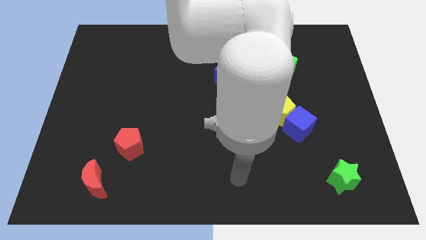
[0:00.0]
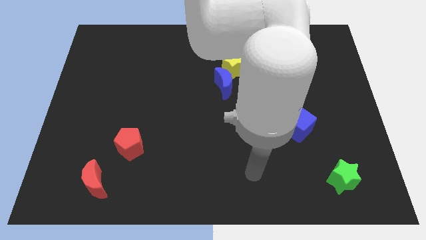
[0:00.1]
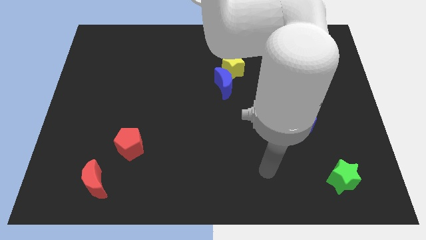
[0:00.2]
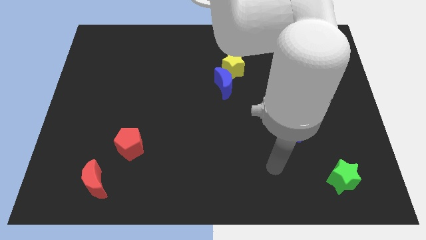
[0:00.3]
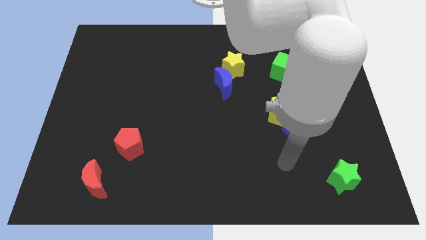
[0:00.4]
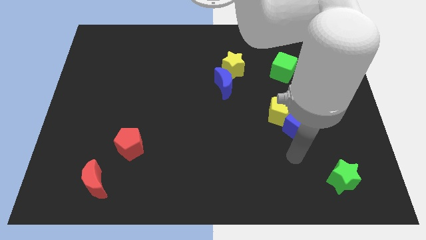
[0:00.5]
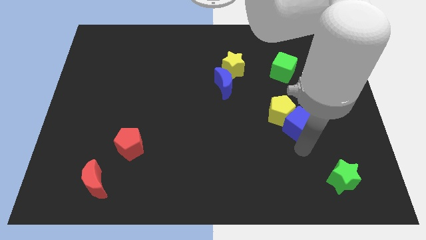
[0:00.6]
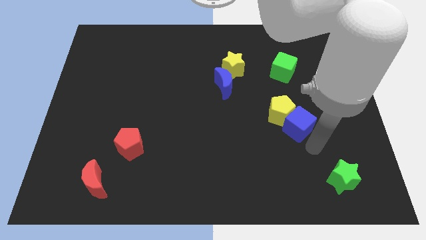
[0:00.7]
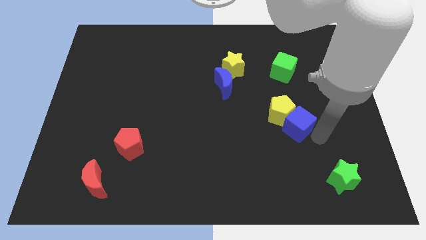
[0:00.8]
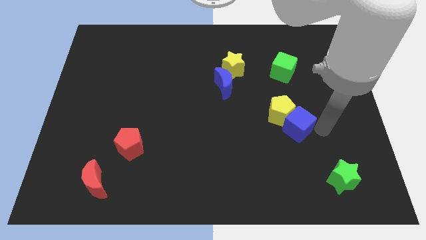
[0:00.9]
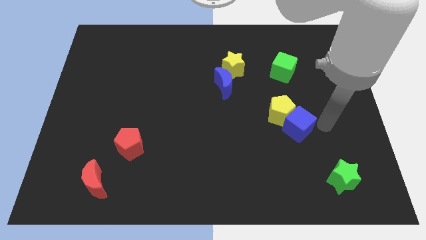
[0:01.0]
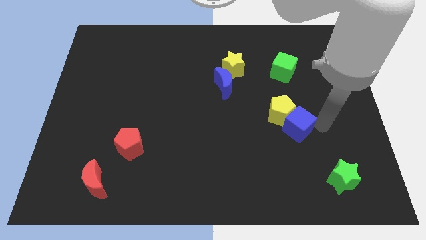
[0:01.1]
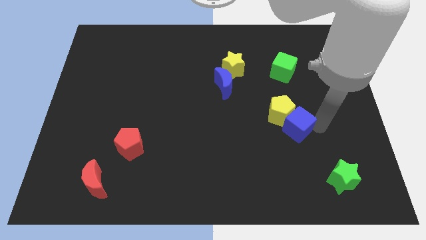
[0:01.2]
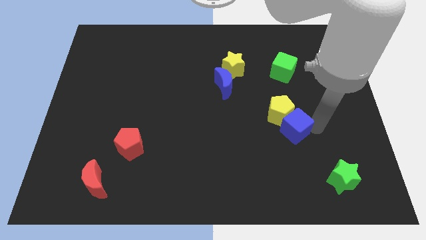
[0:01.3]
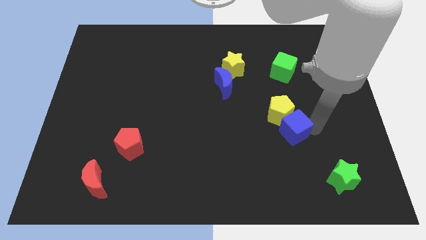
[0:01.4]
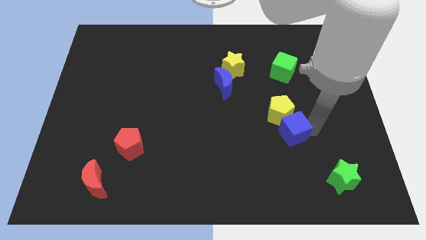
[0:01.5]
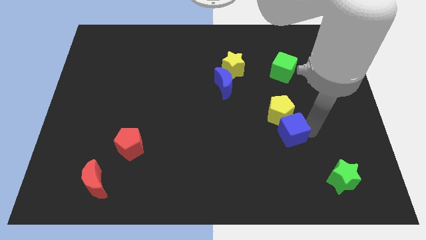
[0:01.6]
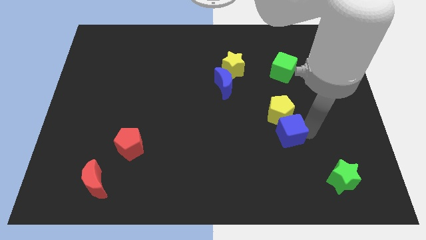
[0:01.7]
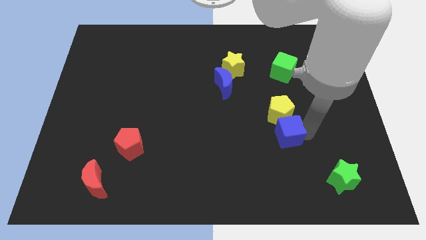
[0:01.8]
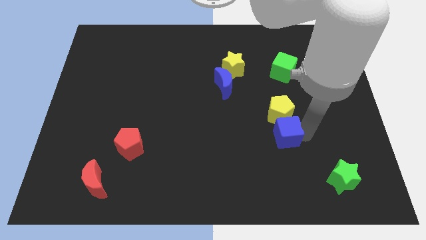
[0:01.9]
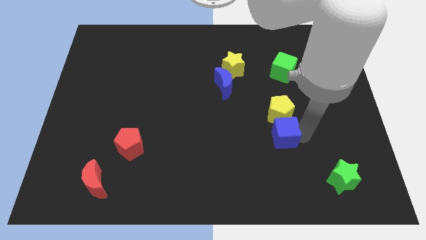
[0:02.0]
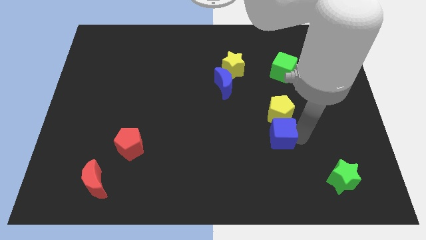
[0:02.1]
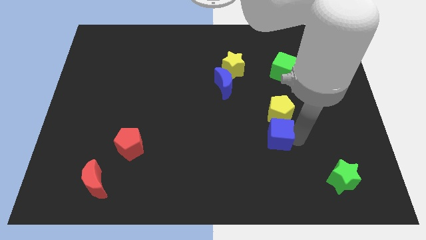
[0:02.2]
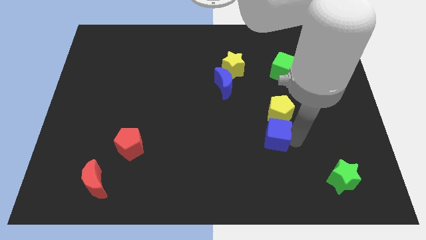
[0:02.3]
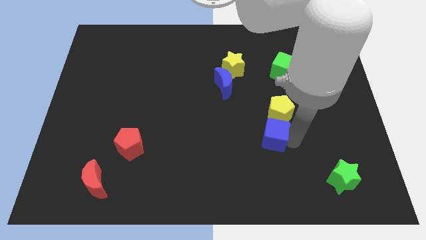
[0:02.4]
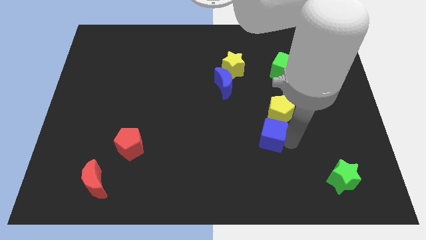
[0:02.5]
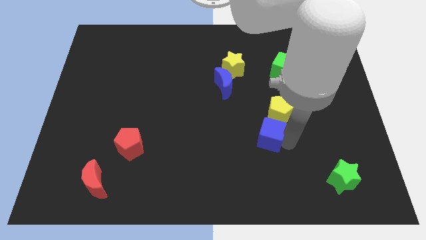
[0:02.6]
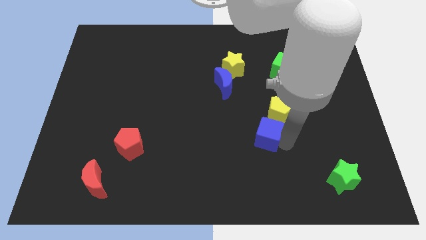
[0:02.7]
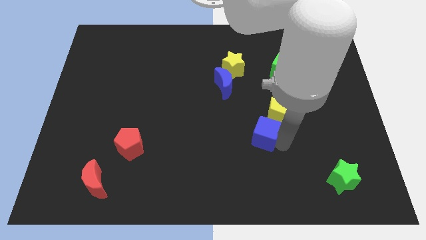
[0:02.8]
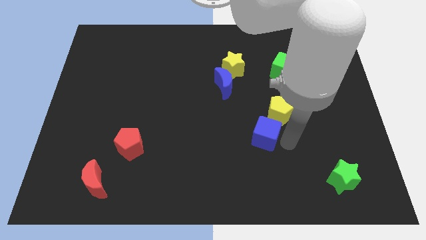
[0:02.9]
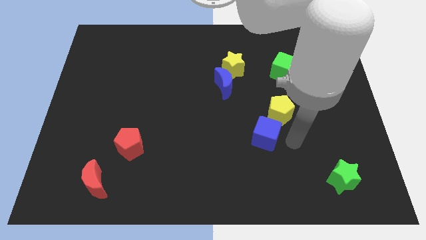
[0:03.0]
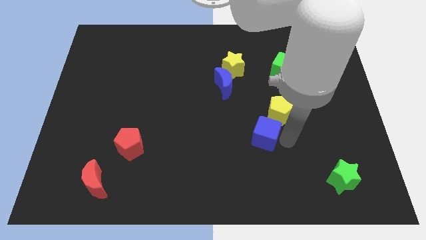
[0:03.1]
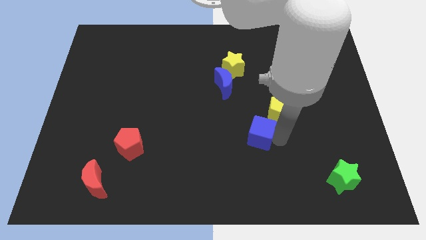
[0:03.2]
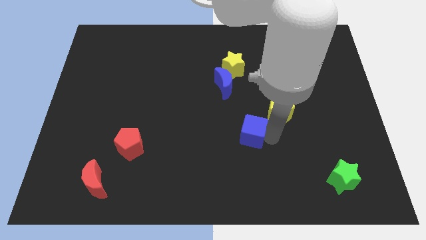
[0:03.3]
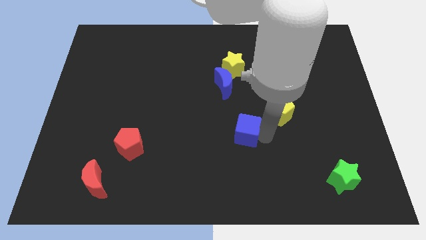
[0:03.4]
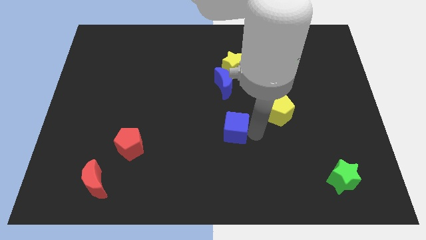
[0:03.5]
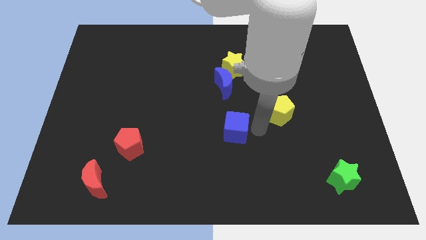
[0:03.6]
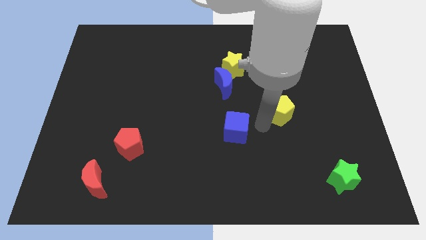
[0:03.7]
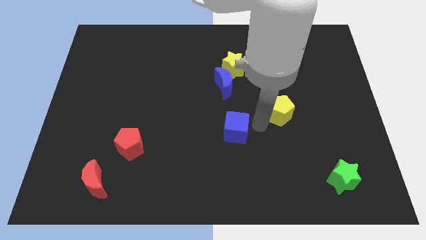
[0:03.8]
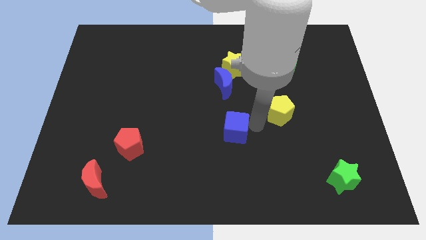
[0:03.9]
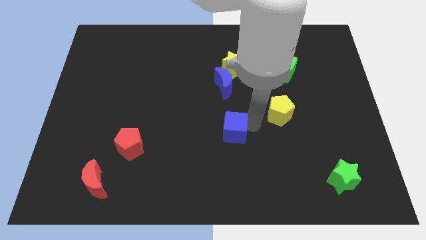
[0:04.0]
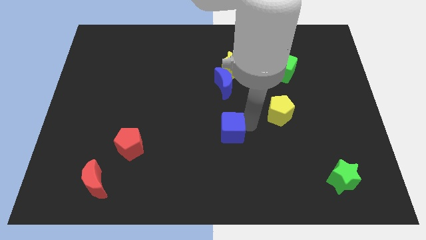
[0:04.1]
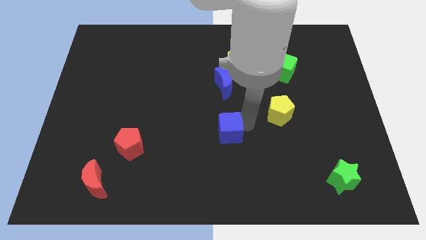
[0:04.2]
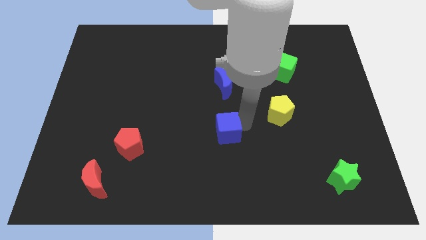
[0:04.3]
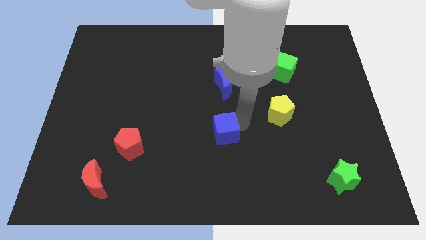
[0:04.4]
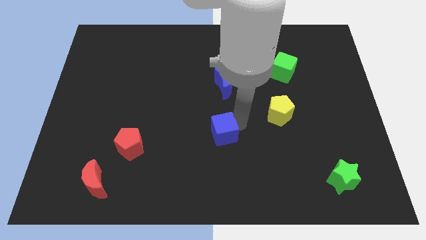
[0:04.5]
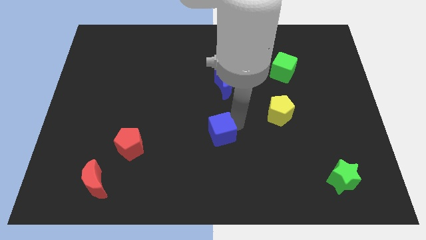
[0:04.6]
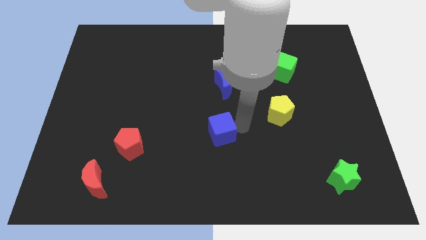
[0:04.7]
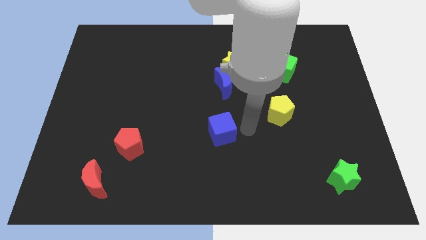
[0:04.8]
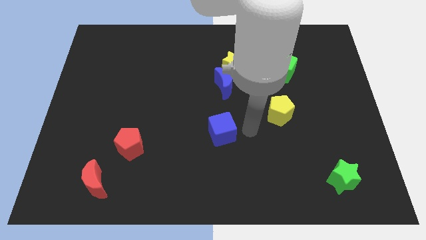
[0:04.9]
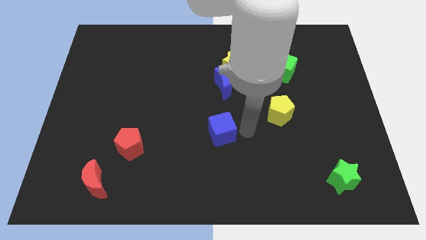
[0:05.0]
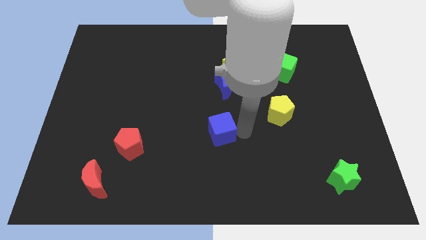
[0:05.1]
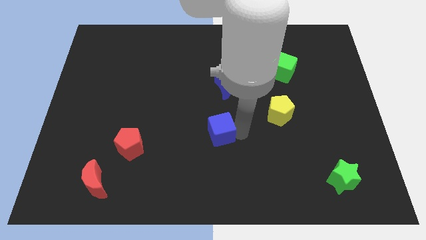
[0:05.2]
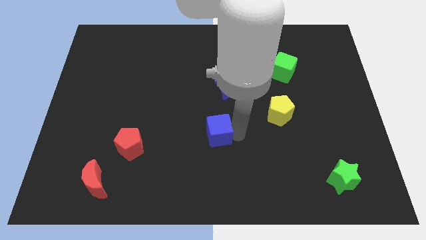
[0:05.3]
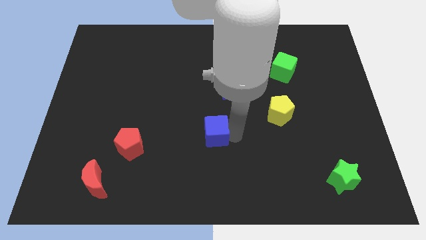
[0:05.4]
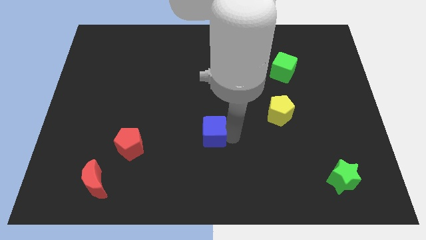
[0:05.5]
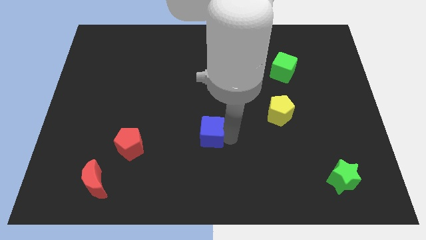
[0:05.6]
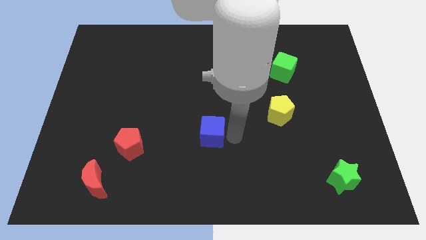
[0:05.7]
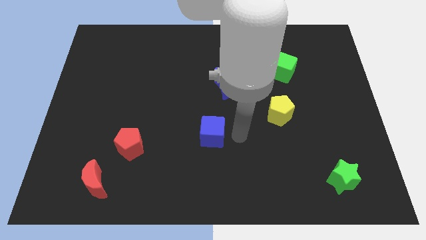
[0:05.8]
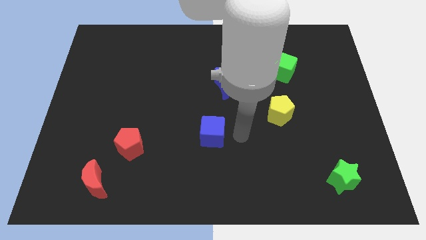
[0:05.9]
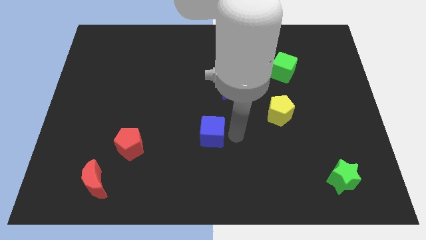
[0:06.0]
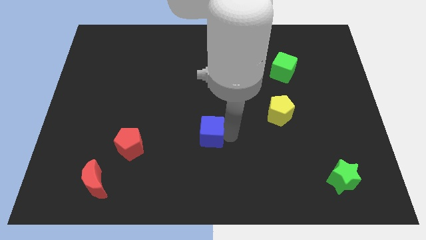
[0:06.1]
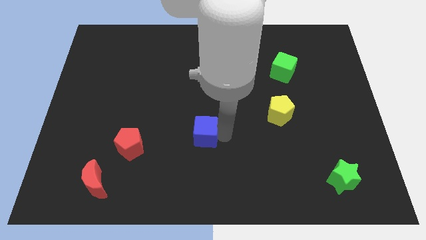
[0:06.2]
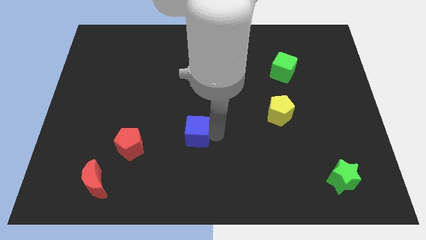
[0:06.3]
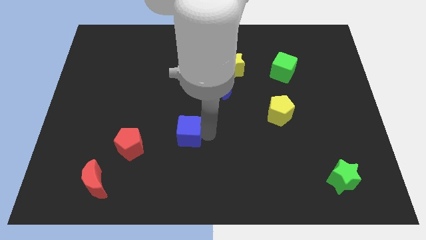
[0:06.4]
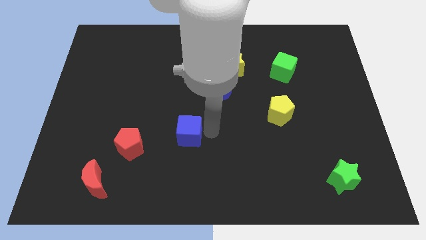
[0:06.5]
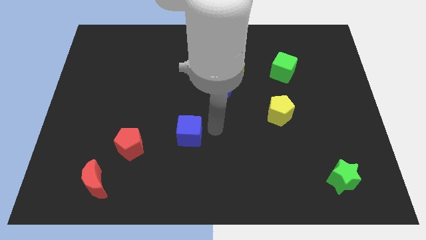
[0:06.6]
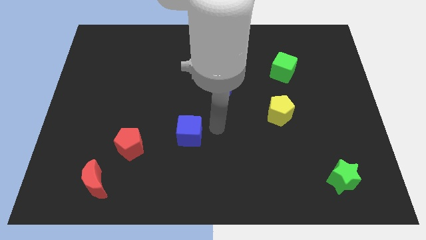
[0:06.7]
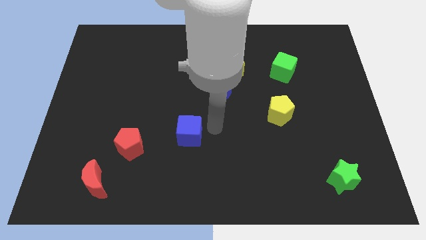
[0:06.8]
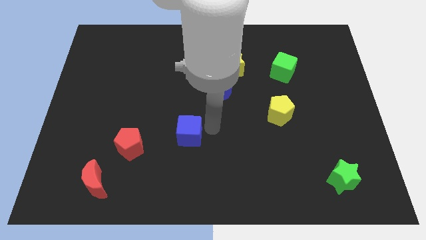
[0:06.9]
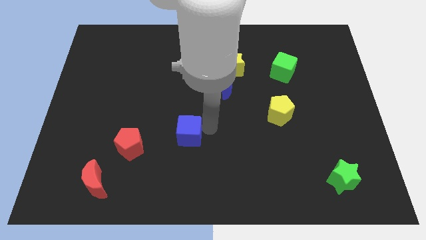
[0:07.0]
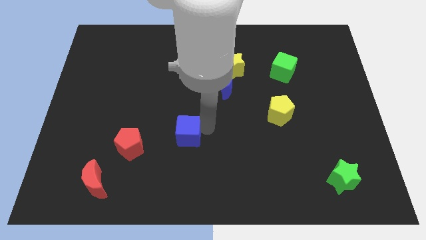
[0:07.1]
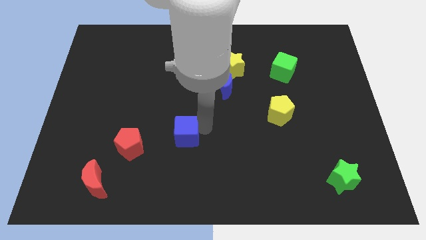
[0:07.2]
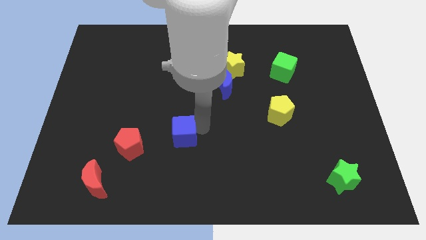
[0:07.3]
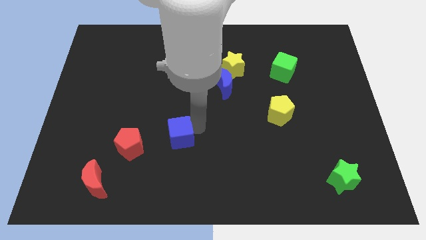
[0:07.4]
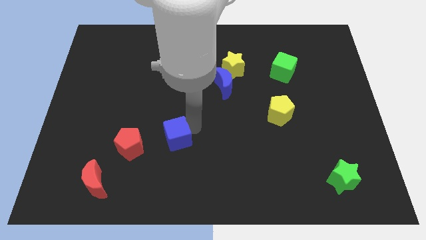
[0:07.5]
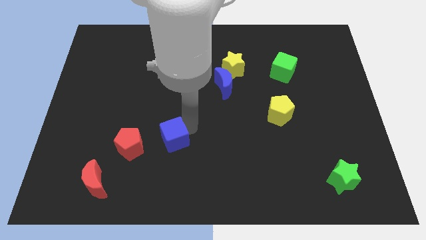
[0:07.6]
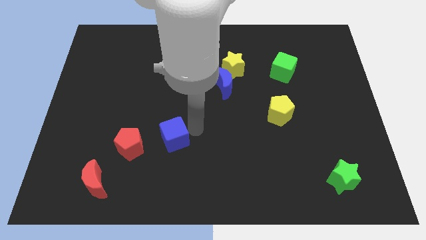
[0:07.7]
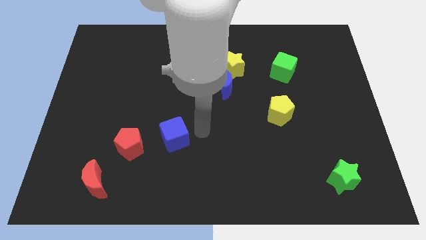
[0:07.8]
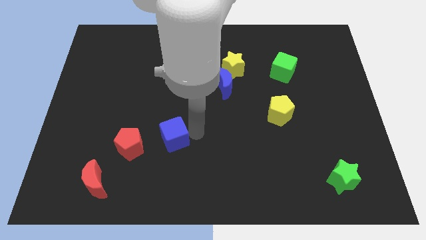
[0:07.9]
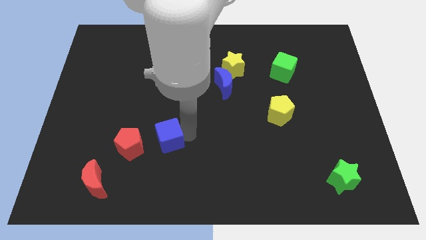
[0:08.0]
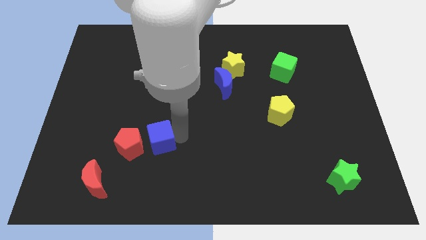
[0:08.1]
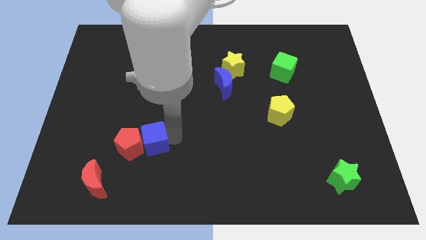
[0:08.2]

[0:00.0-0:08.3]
slide the blue cube towards the red pentagon
